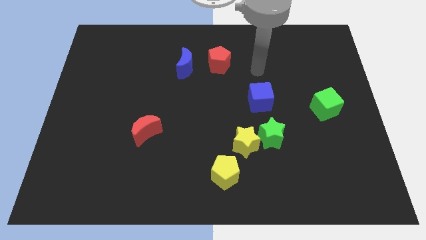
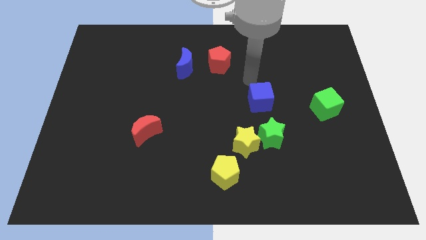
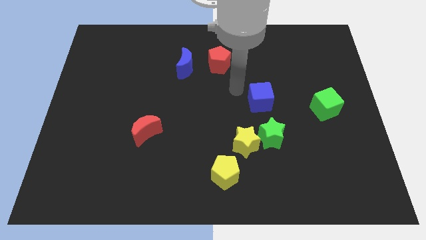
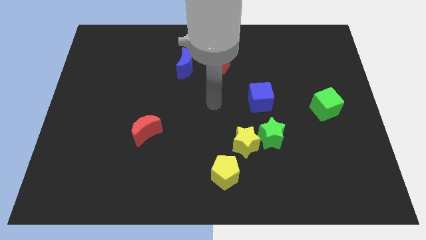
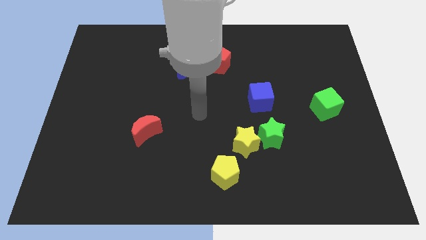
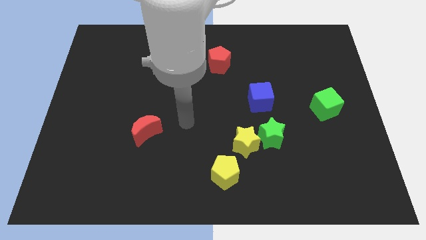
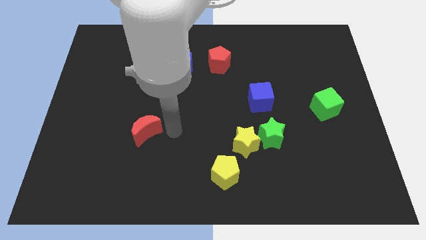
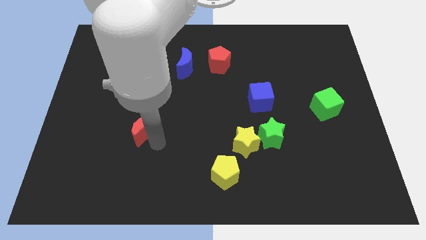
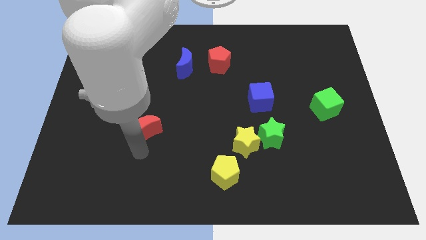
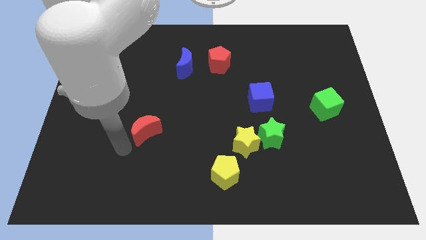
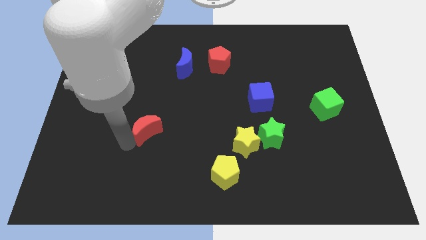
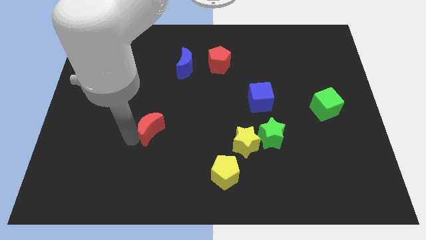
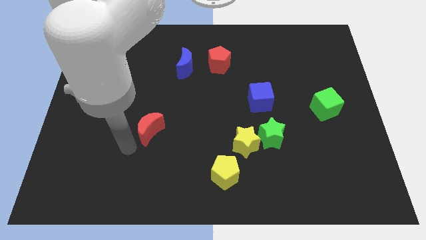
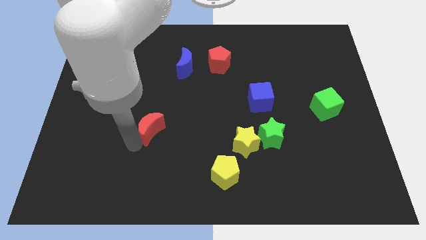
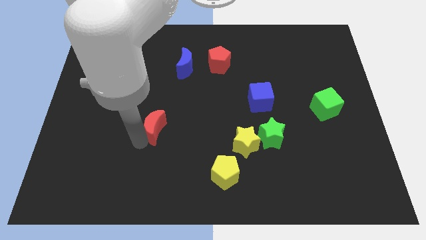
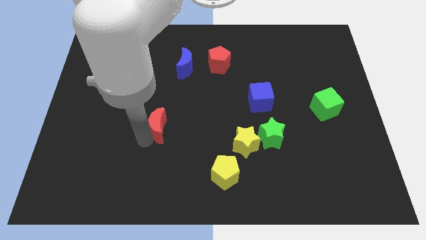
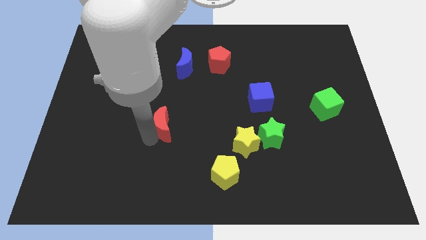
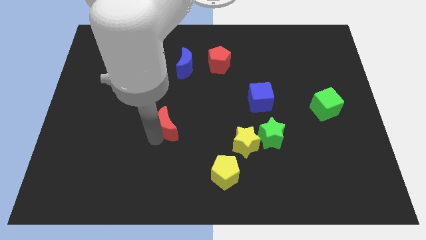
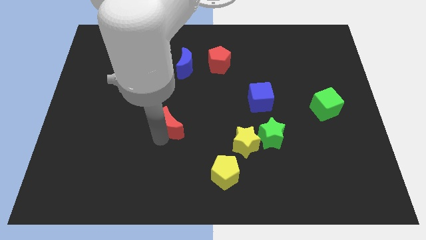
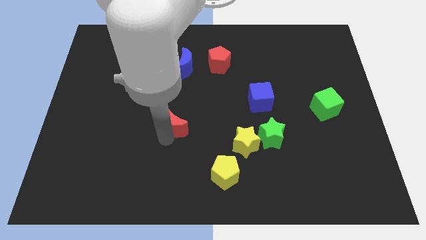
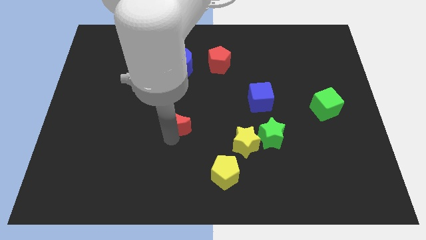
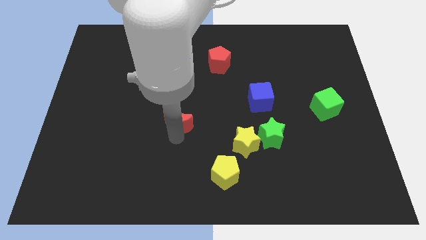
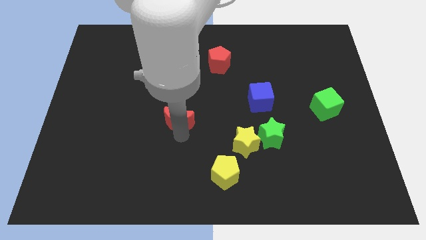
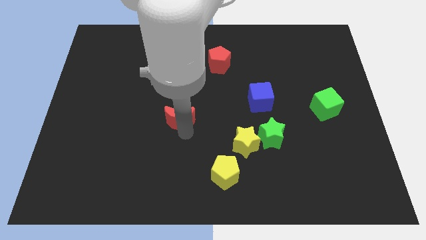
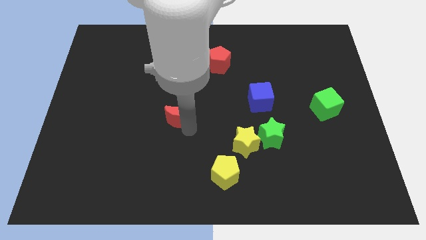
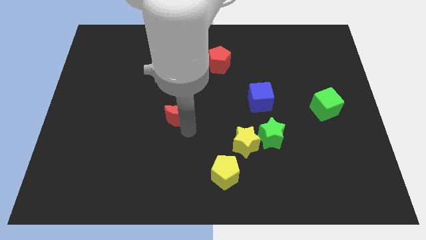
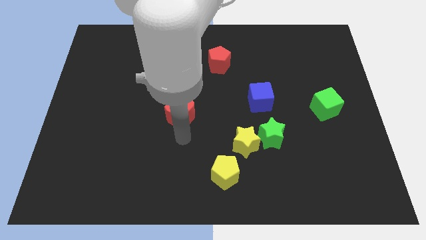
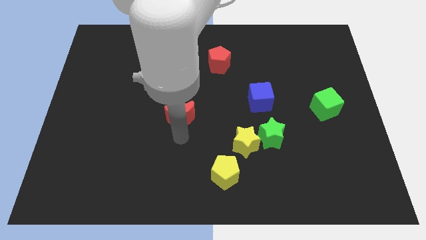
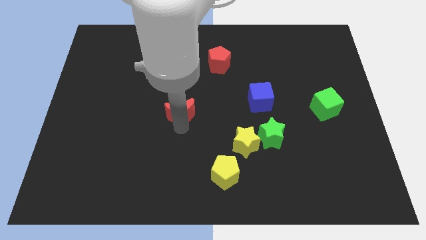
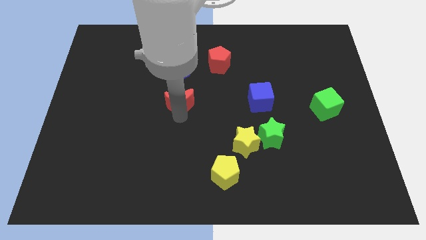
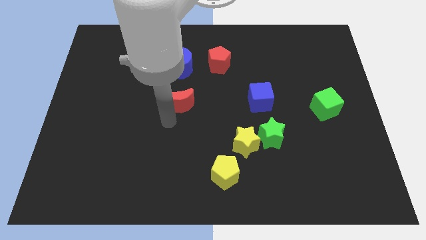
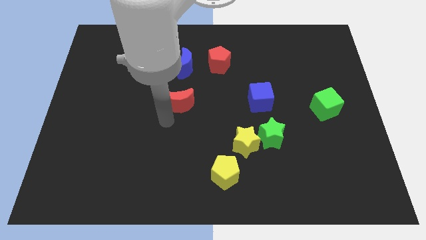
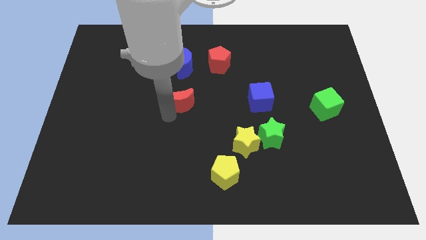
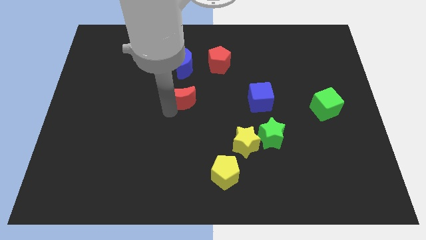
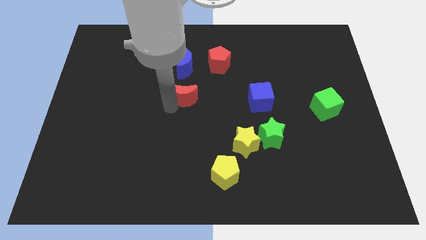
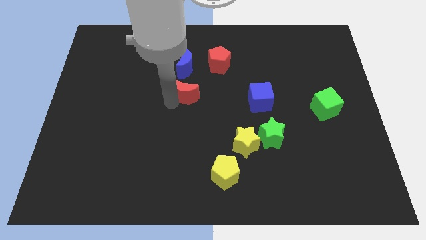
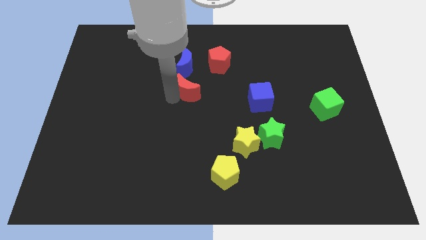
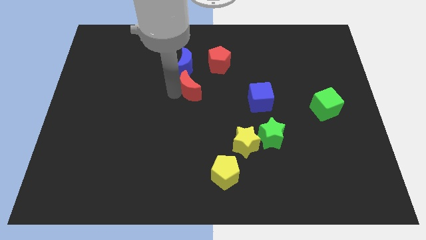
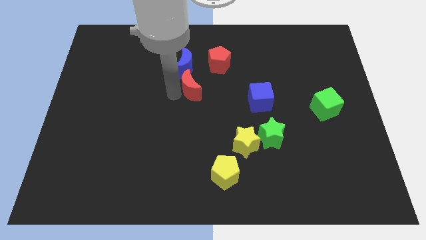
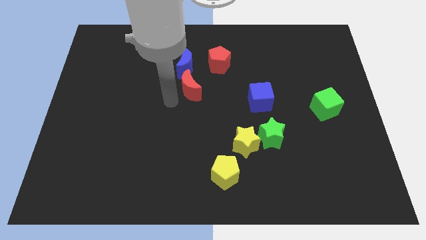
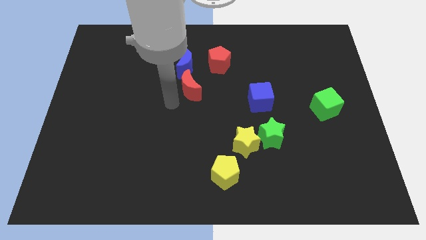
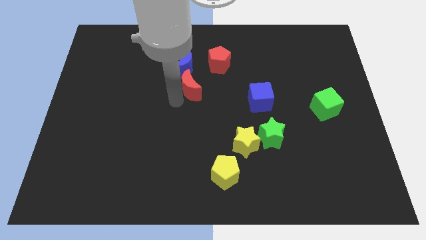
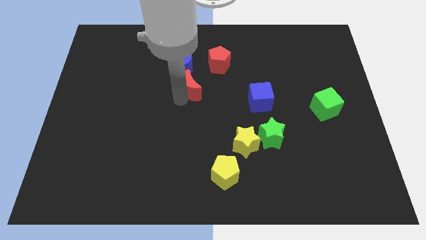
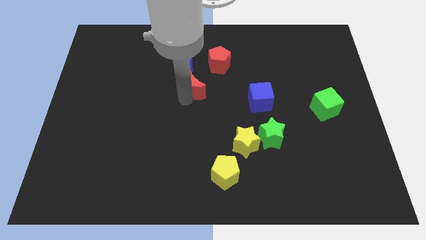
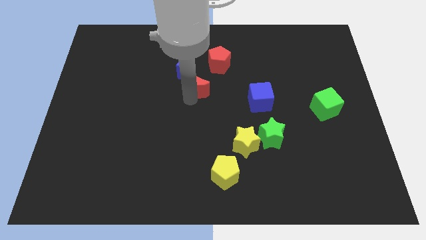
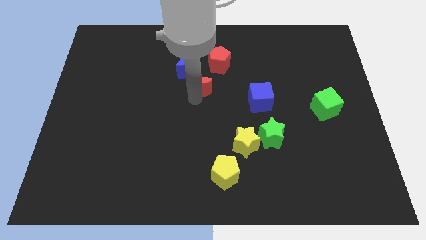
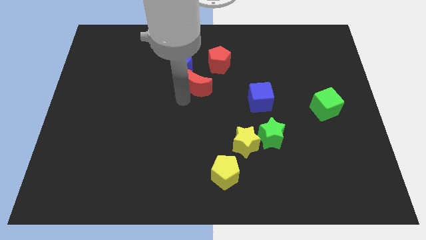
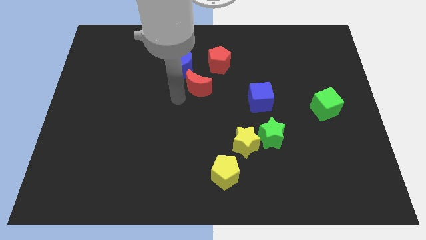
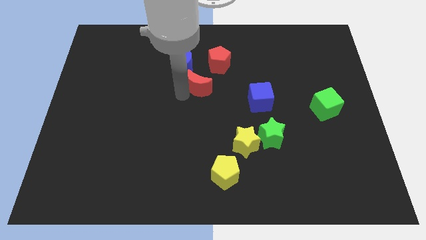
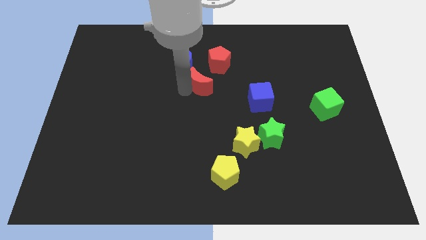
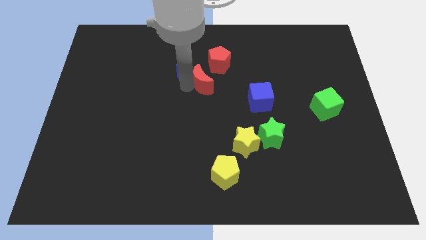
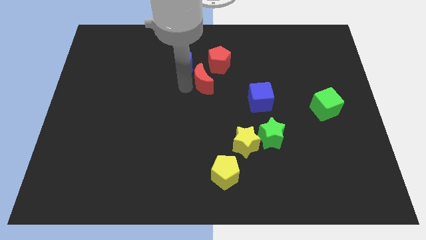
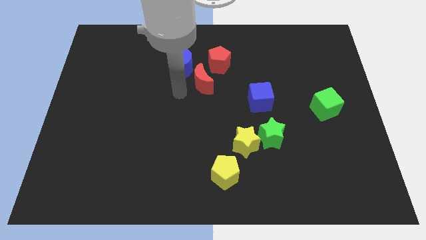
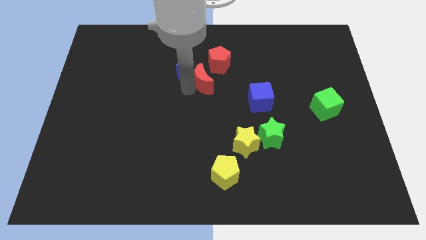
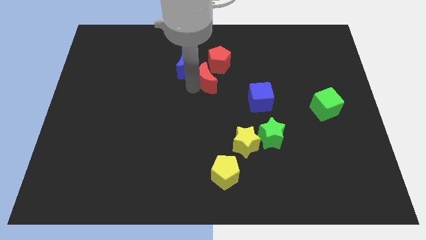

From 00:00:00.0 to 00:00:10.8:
move the red moon upwards and then to the right

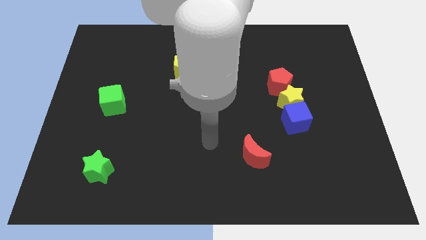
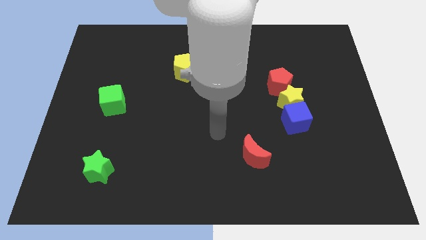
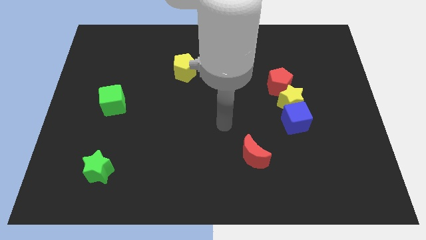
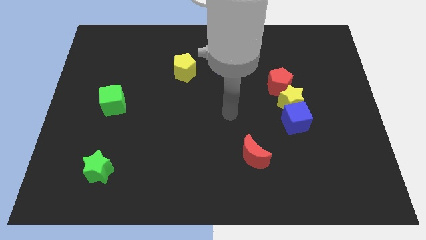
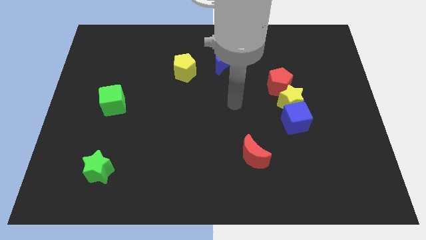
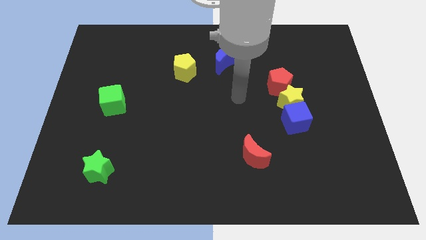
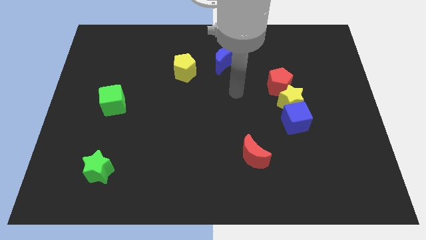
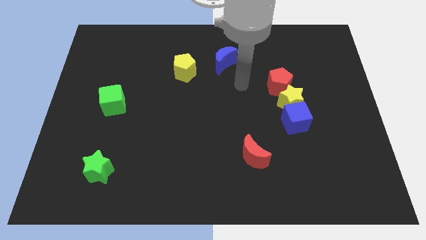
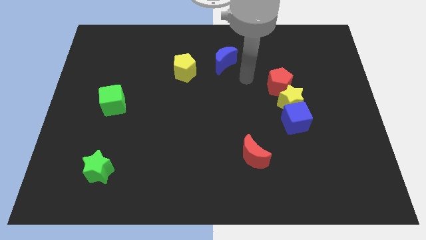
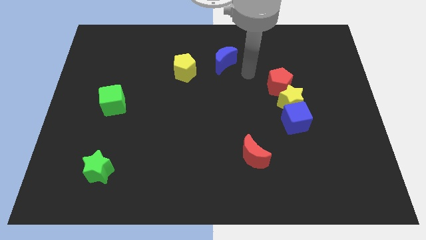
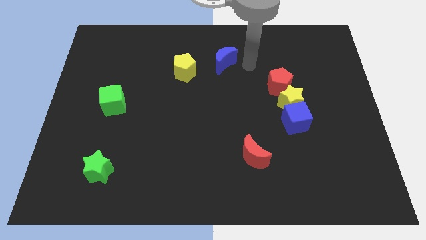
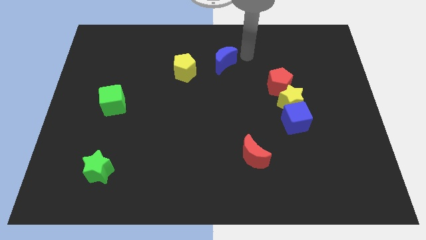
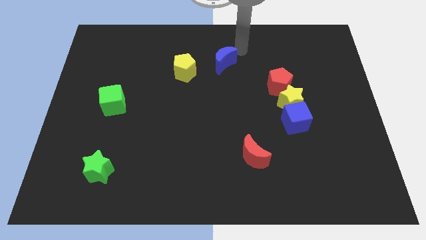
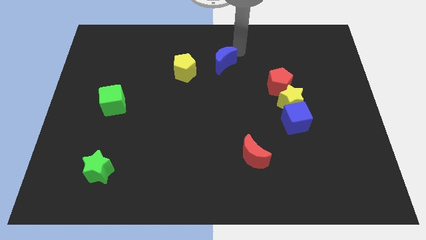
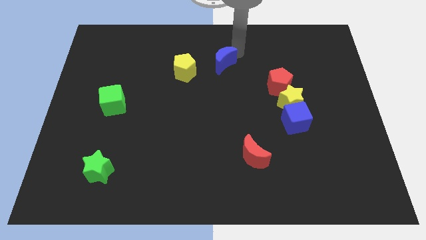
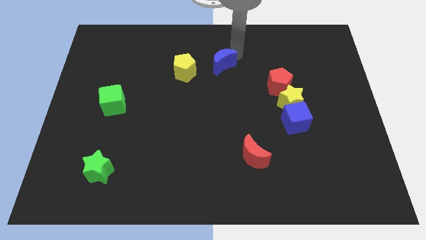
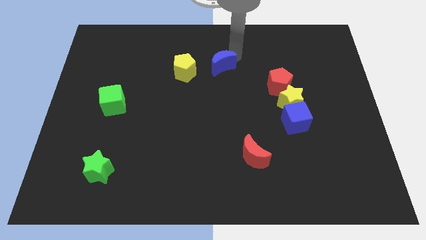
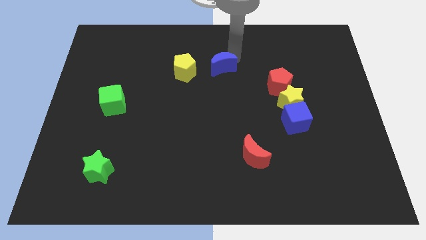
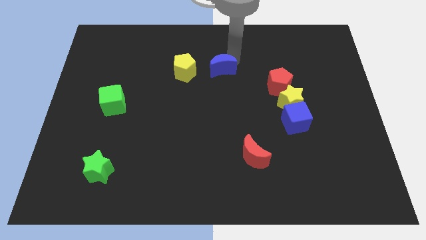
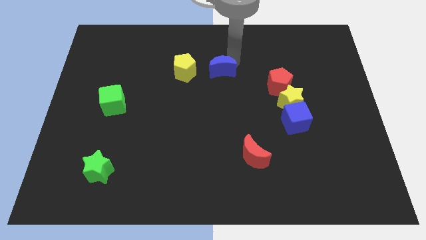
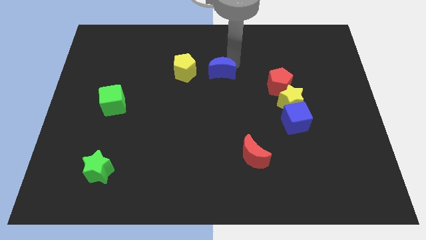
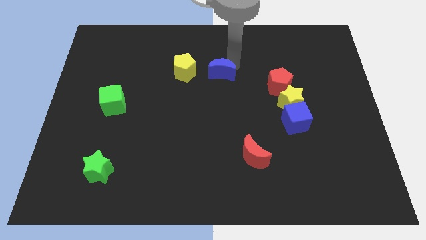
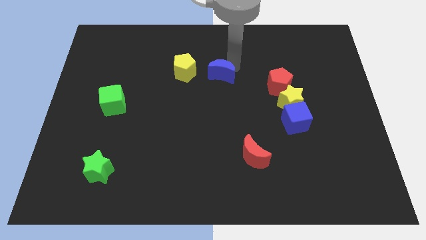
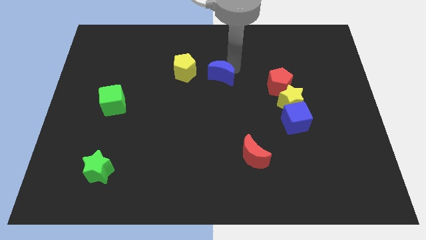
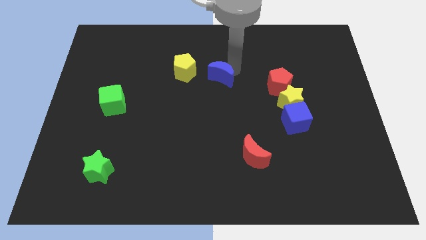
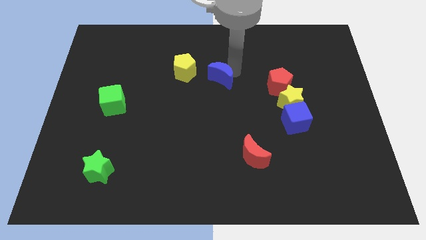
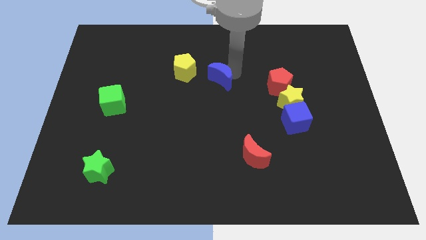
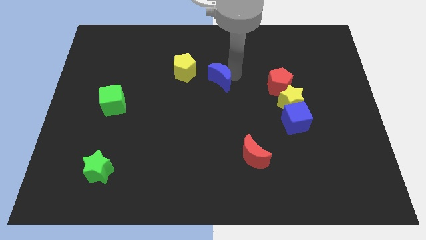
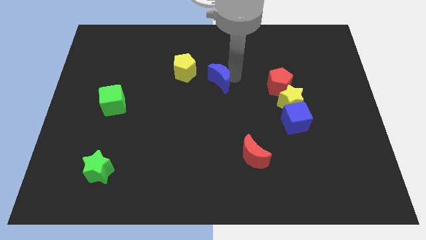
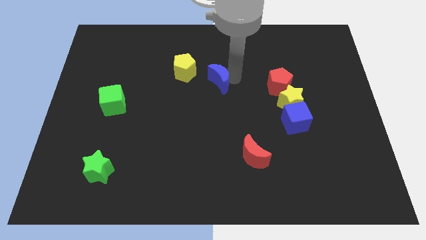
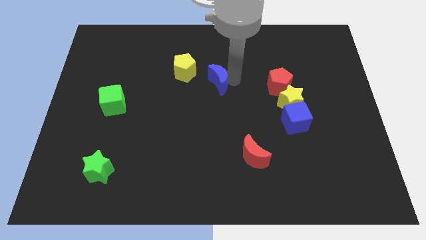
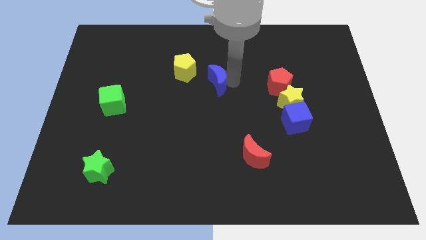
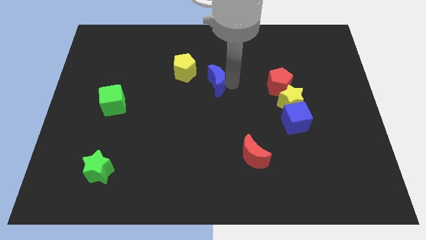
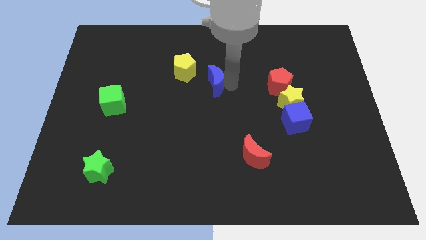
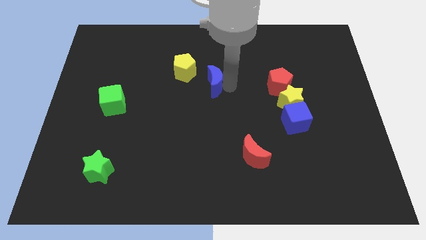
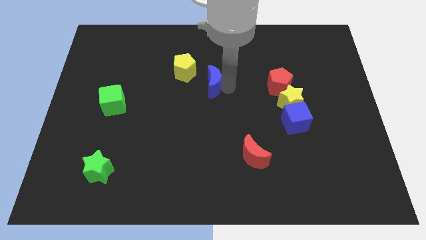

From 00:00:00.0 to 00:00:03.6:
slide the blue moon somewhat down and to the left diagonally
